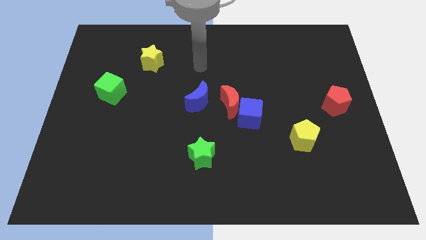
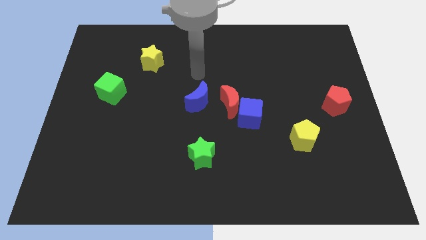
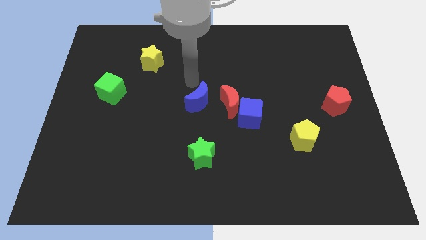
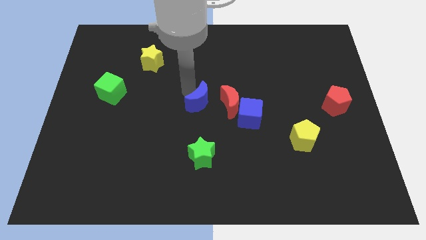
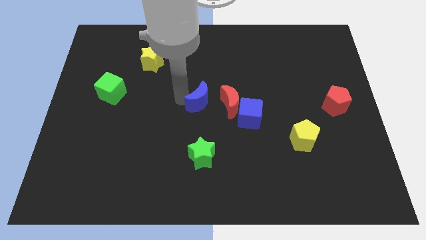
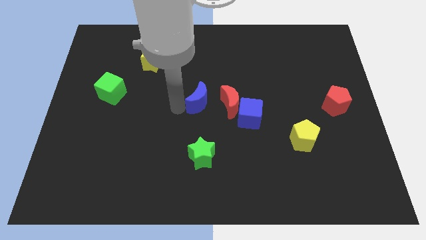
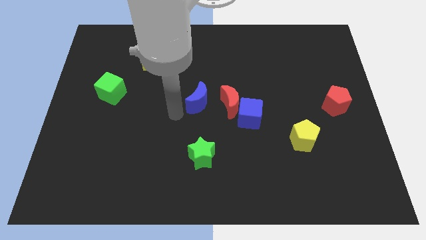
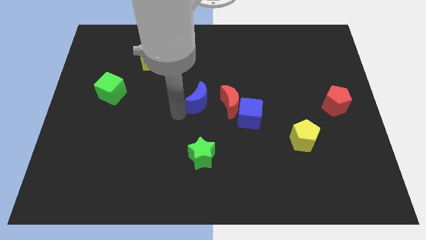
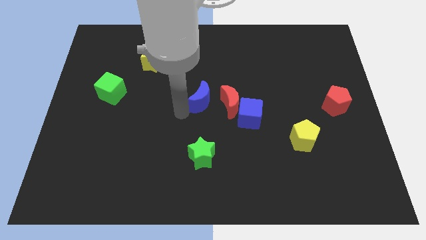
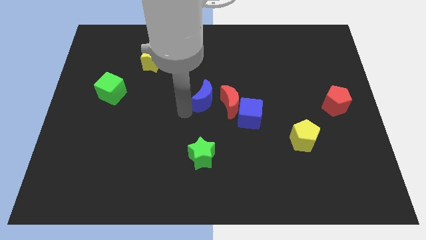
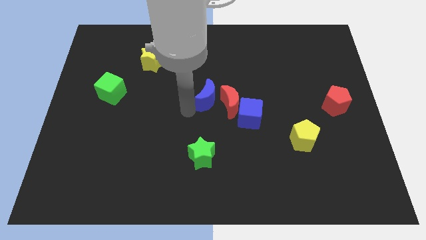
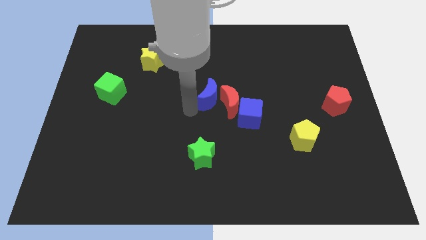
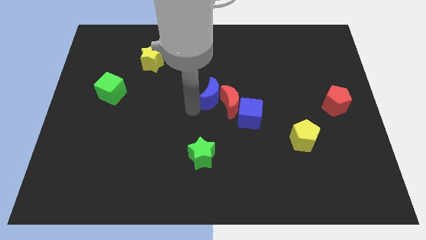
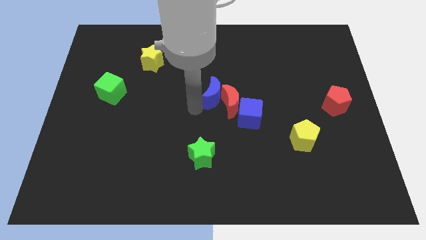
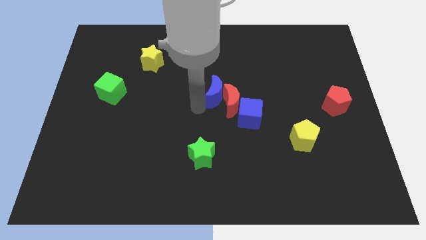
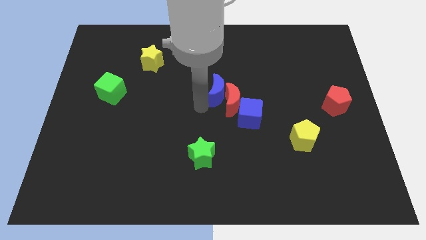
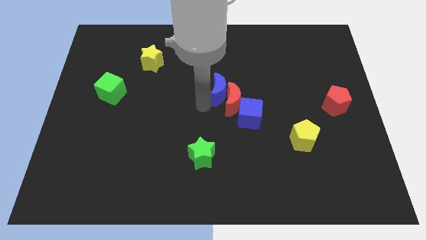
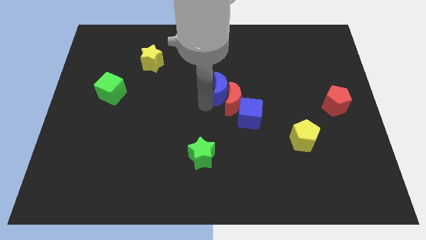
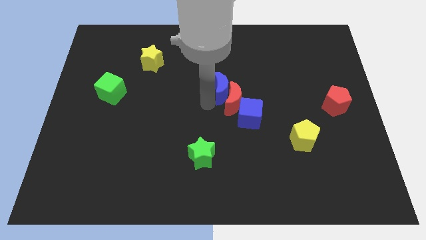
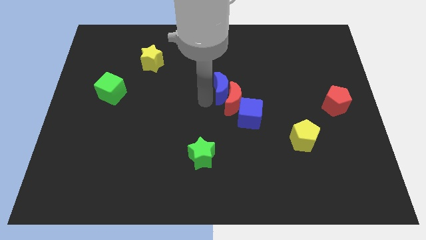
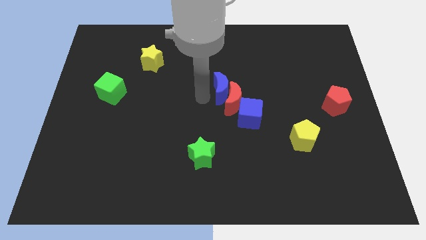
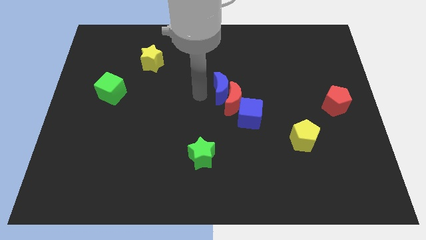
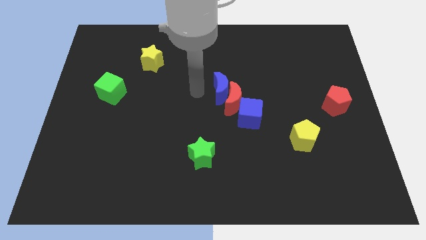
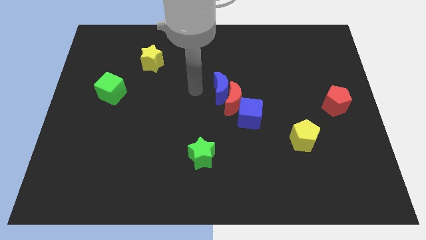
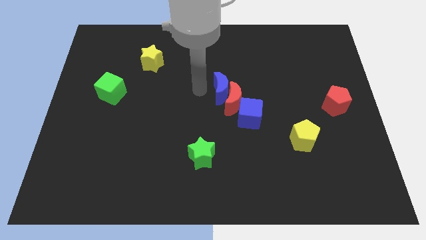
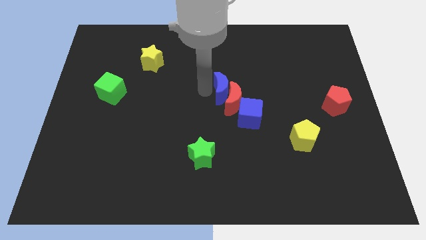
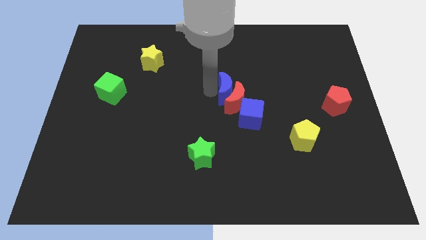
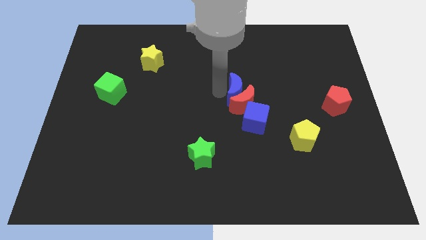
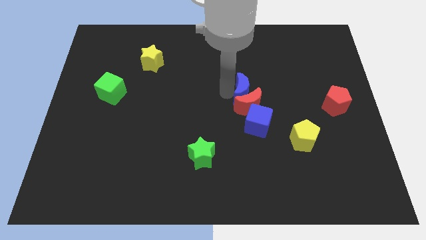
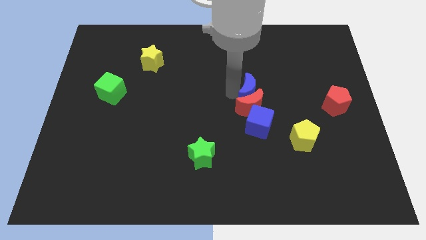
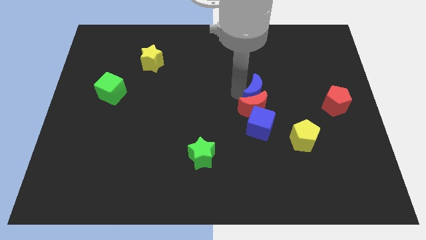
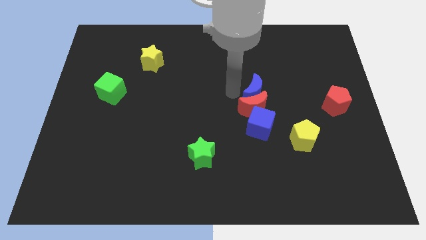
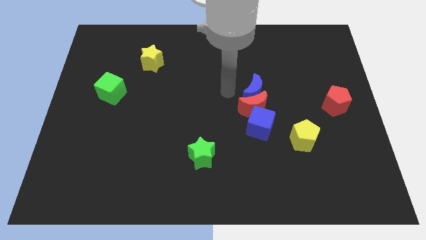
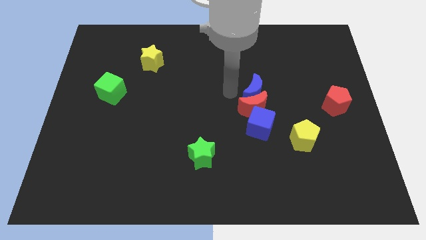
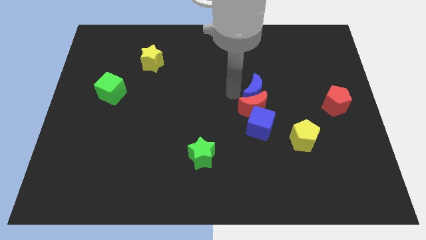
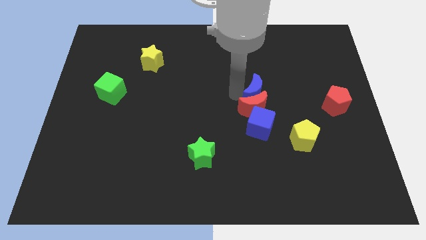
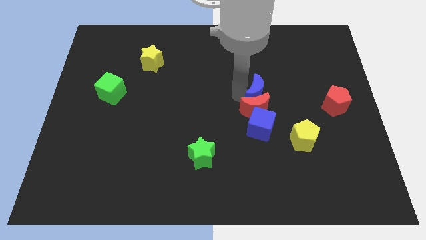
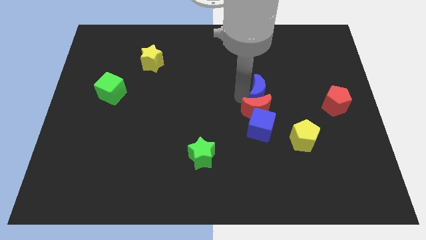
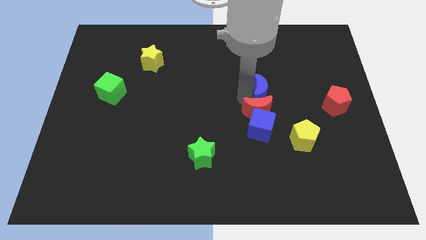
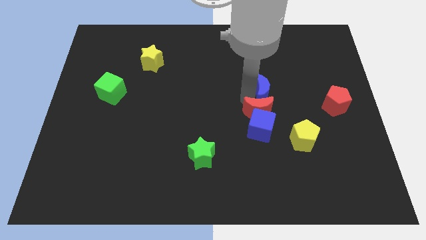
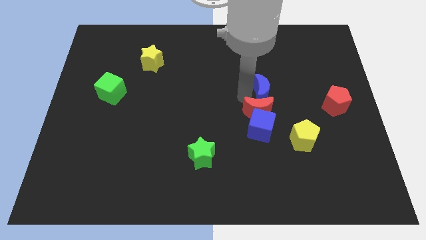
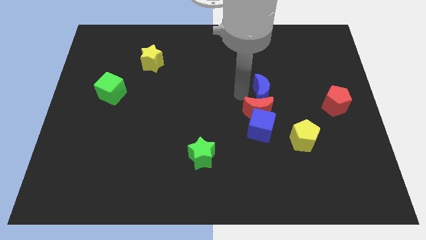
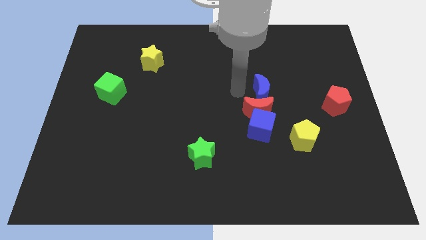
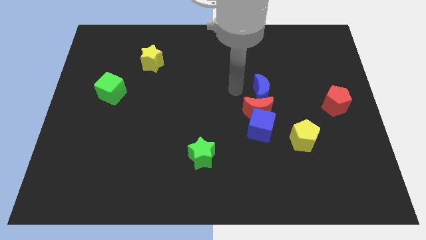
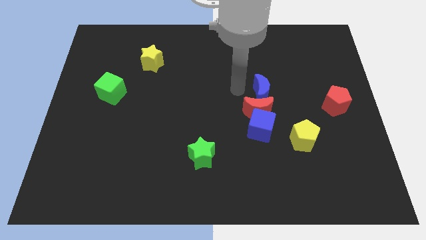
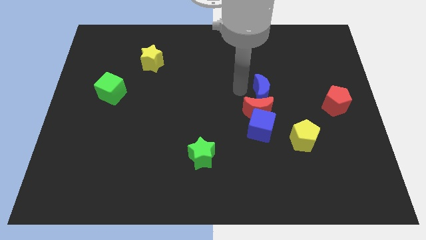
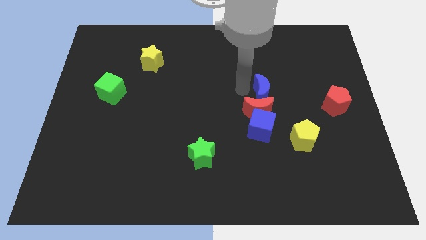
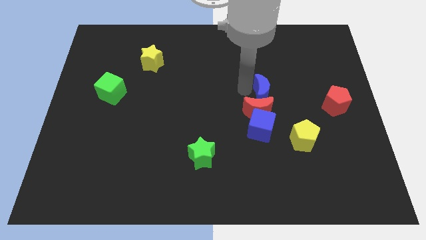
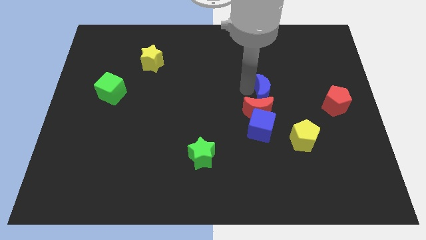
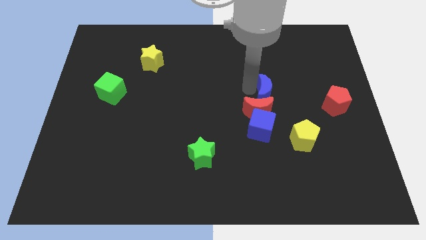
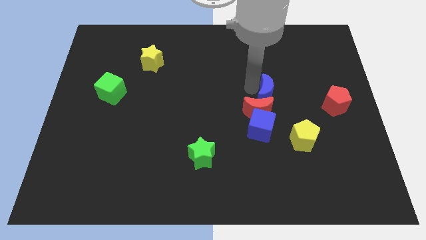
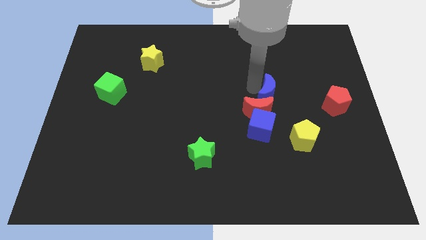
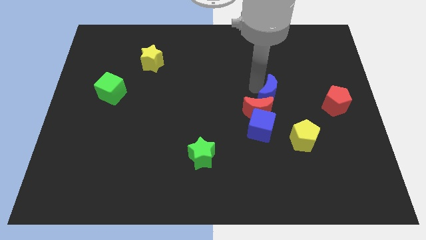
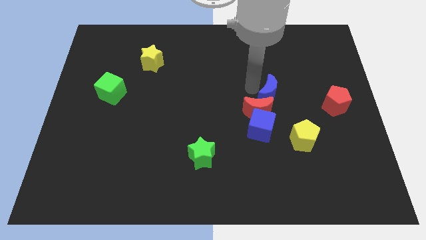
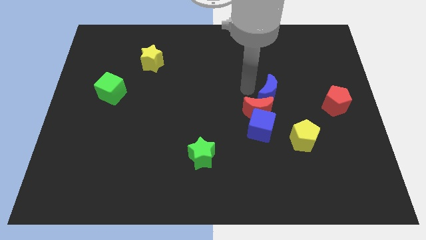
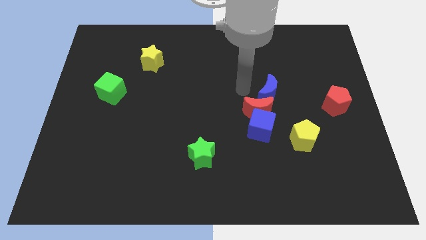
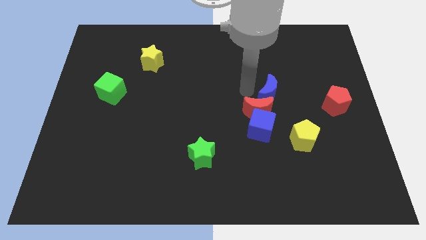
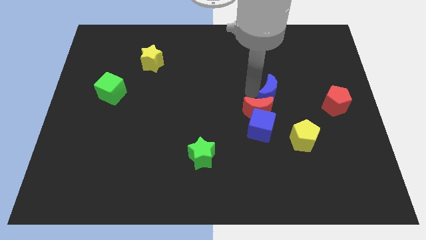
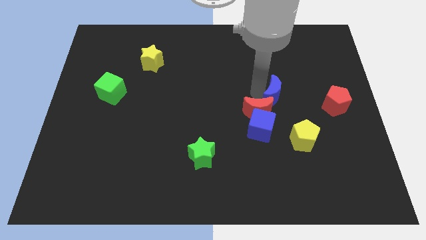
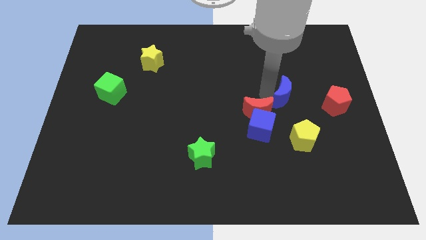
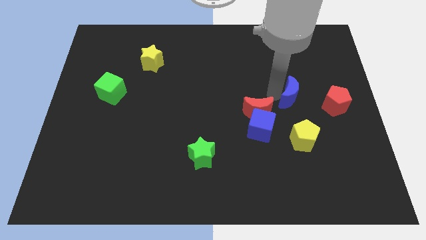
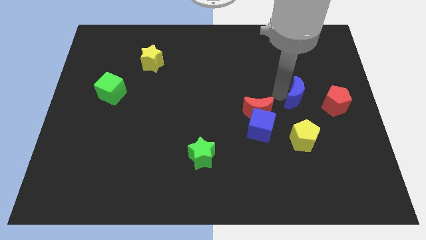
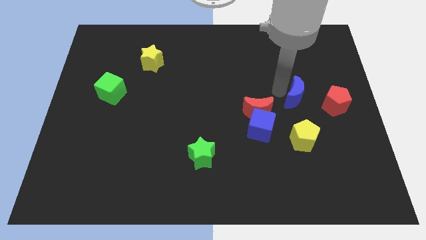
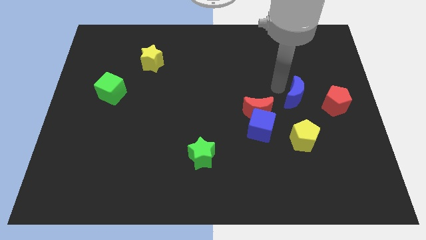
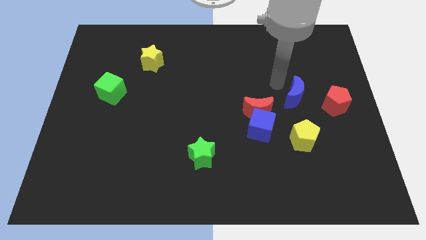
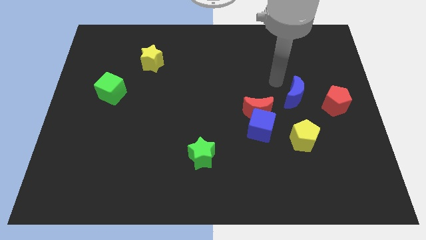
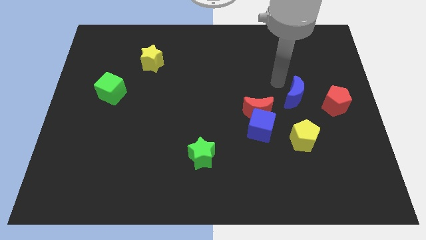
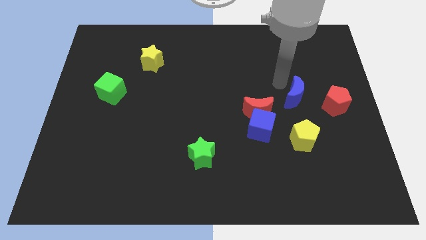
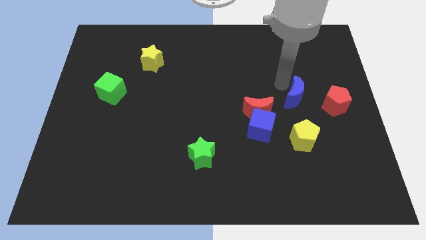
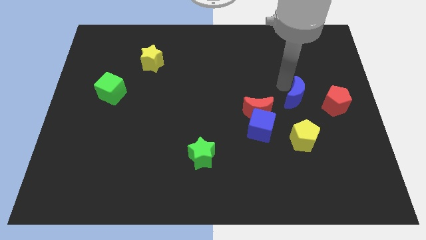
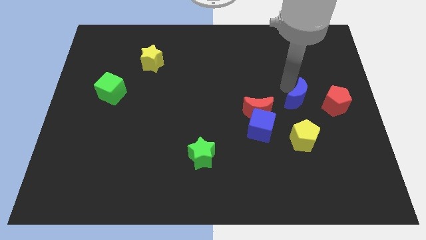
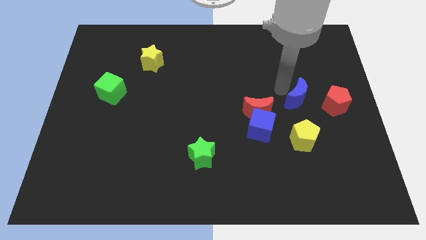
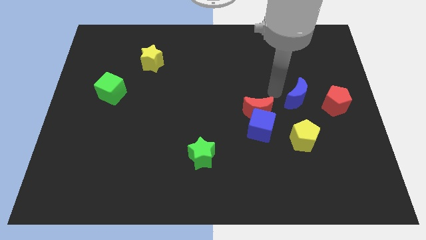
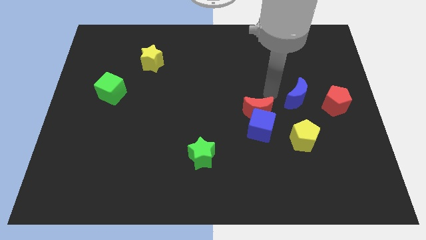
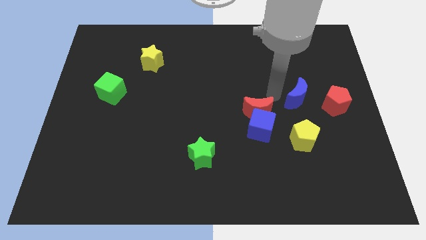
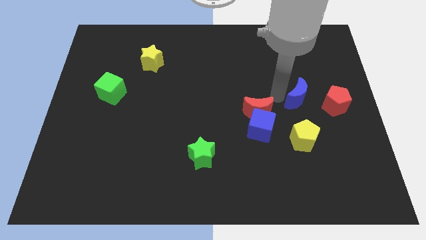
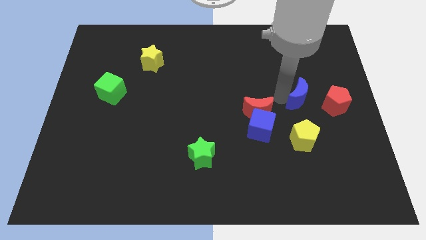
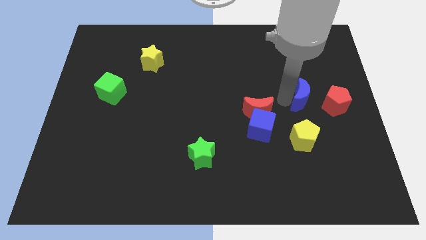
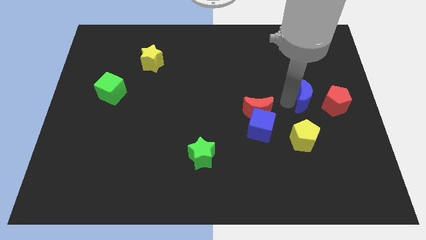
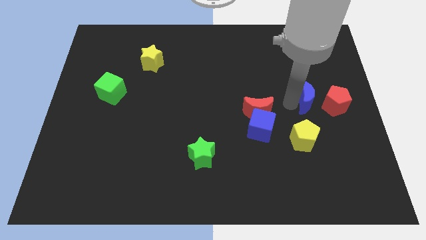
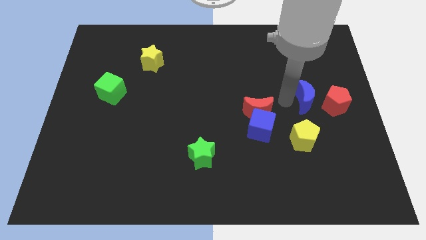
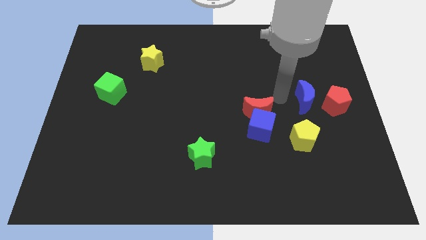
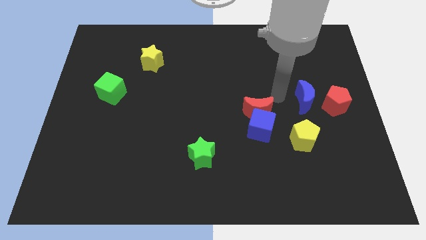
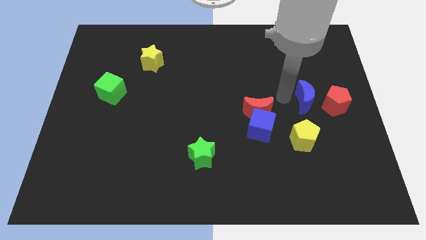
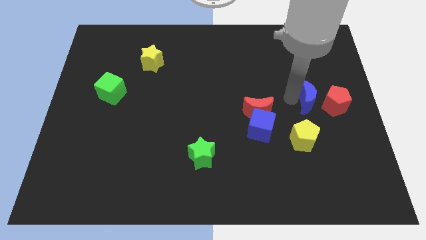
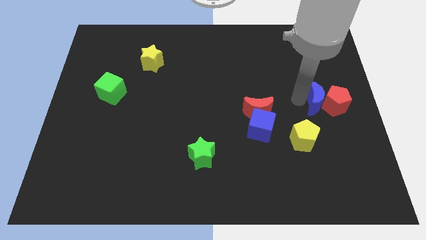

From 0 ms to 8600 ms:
slide the blue moon next to the red pentagon
